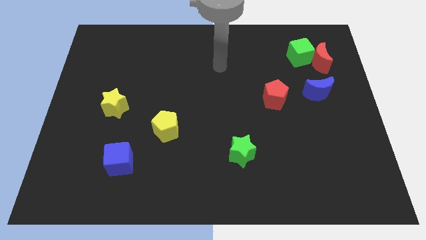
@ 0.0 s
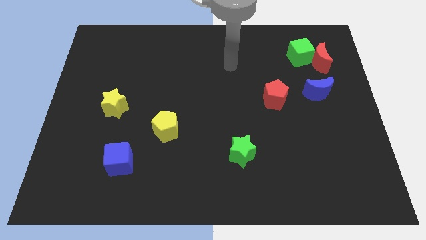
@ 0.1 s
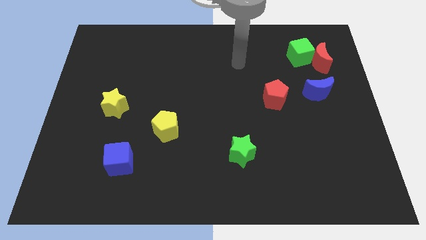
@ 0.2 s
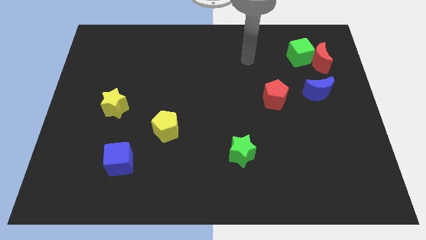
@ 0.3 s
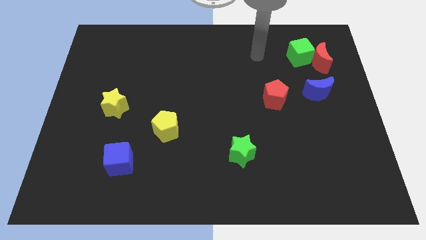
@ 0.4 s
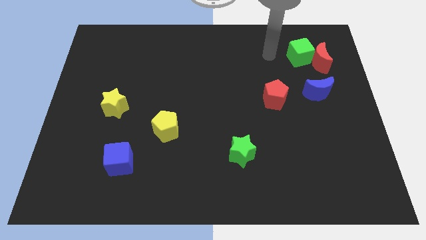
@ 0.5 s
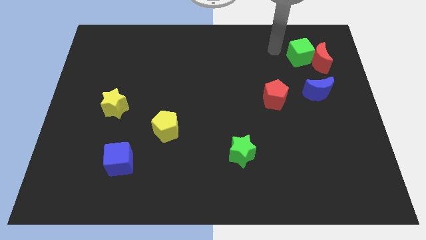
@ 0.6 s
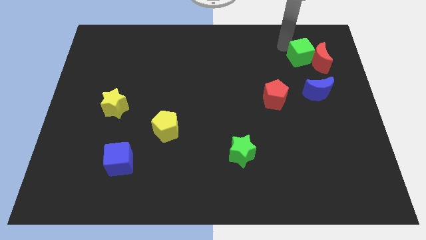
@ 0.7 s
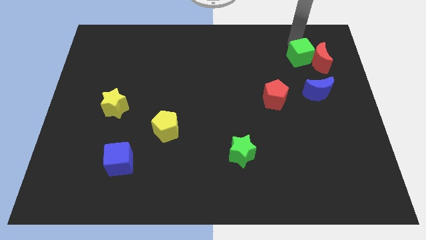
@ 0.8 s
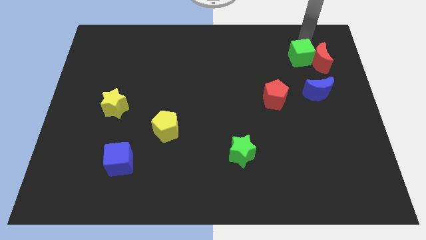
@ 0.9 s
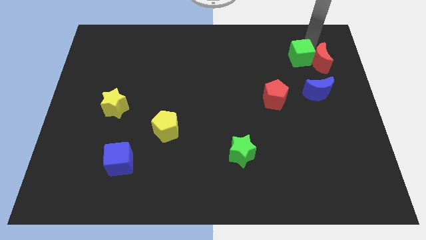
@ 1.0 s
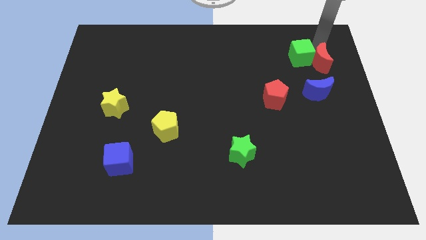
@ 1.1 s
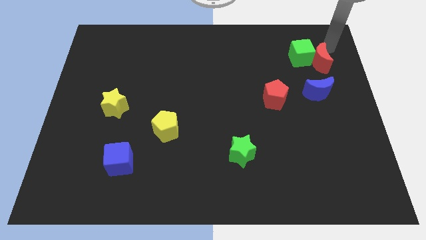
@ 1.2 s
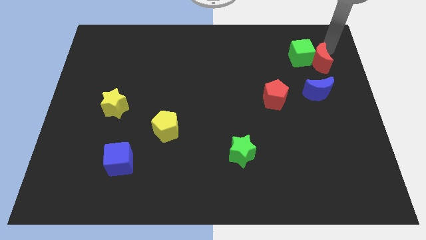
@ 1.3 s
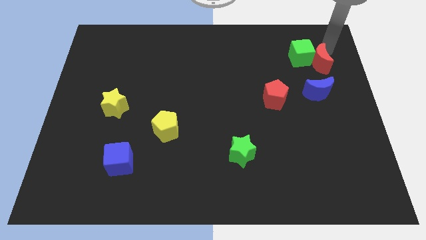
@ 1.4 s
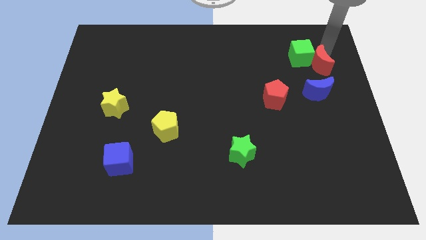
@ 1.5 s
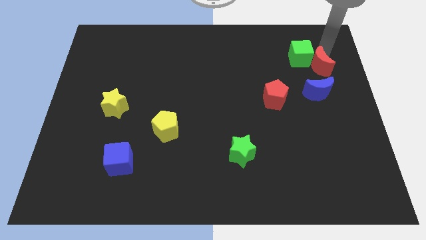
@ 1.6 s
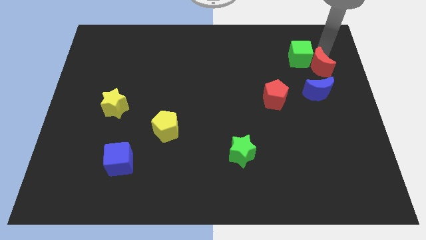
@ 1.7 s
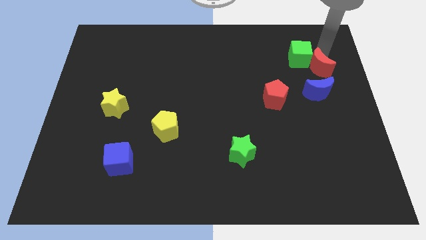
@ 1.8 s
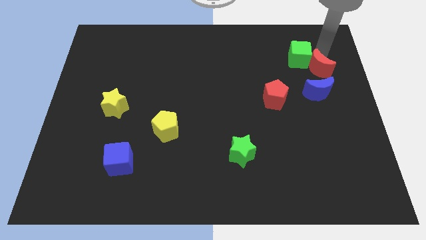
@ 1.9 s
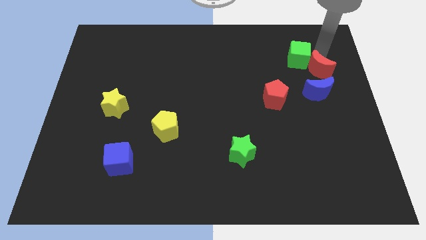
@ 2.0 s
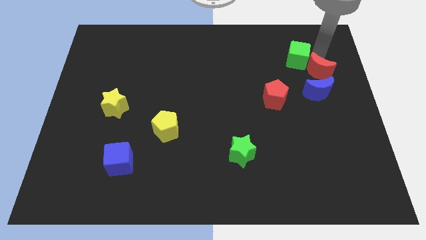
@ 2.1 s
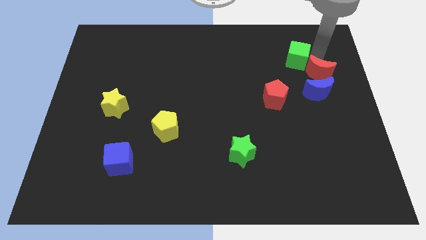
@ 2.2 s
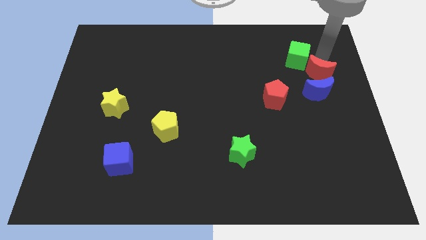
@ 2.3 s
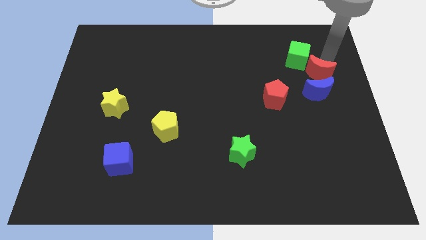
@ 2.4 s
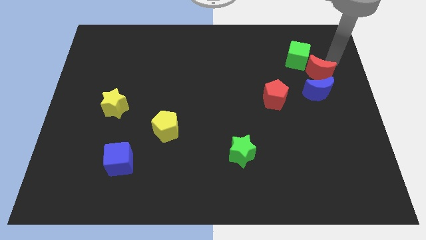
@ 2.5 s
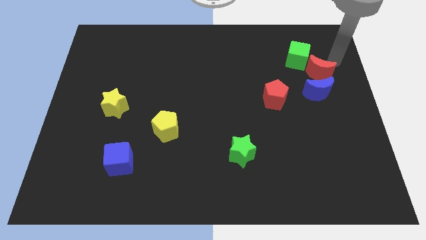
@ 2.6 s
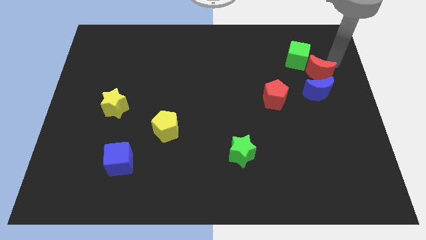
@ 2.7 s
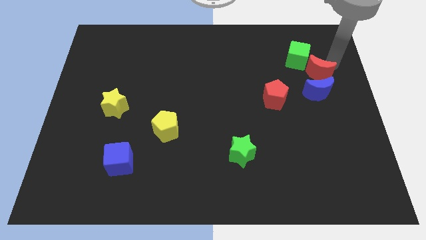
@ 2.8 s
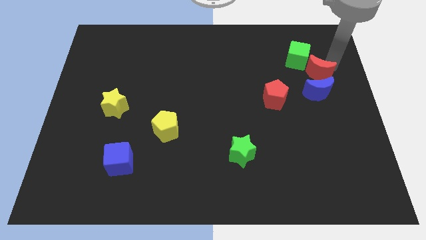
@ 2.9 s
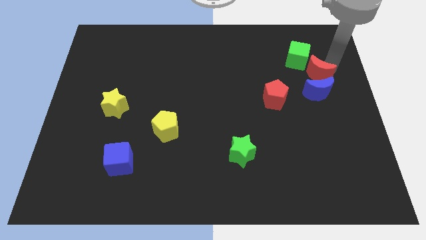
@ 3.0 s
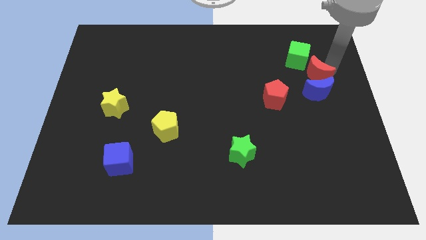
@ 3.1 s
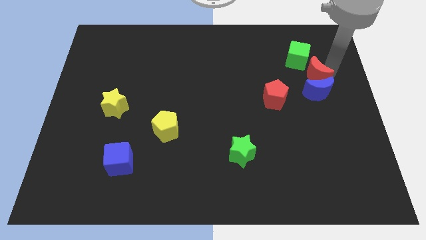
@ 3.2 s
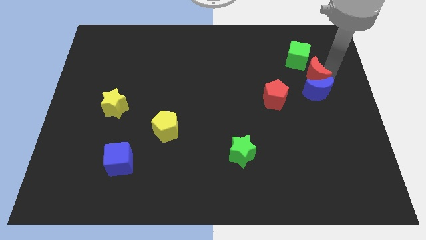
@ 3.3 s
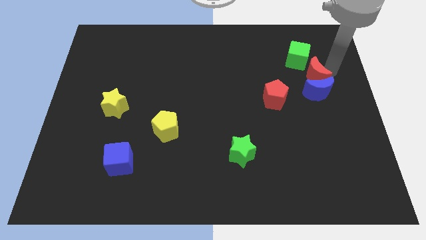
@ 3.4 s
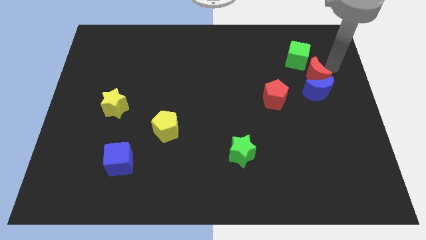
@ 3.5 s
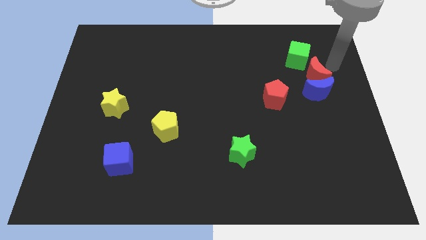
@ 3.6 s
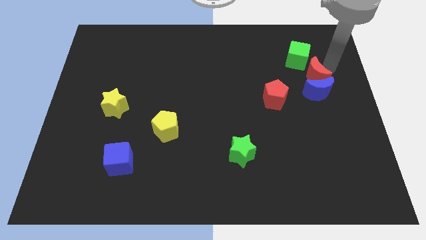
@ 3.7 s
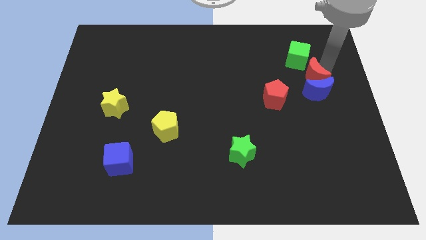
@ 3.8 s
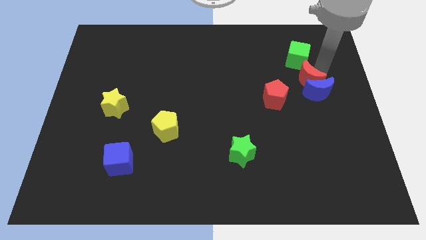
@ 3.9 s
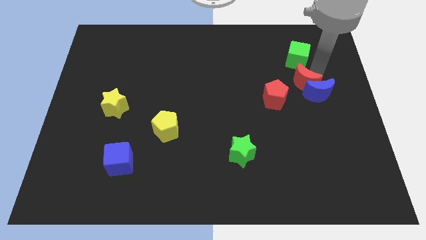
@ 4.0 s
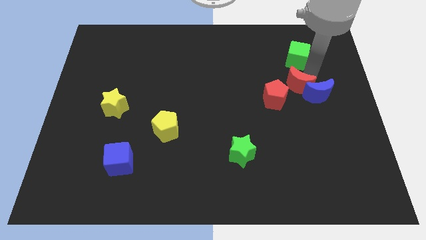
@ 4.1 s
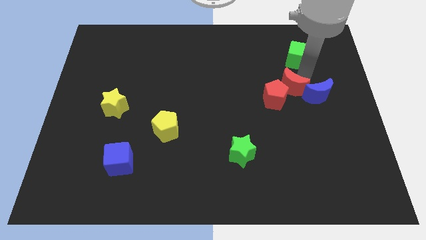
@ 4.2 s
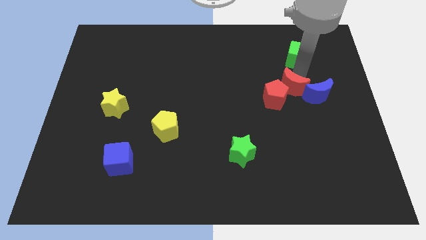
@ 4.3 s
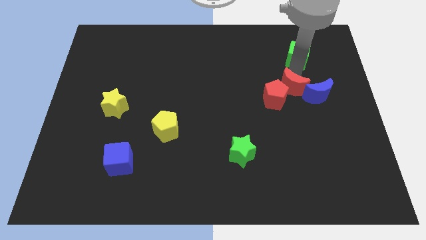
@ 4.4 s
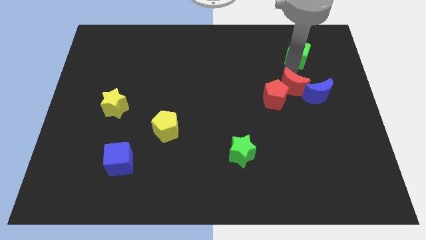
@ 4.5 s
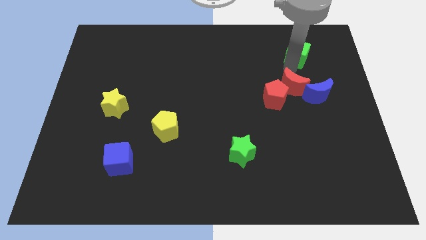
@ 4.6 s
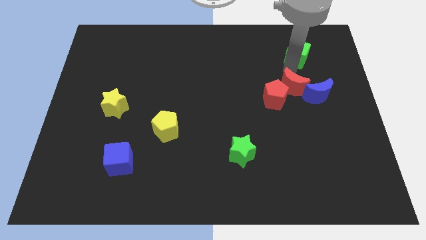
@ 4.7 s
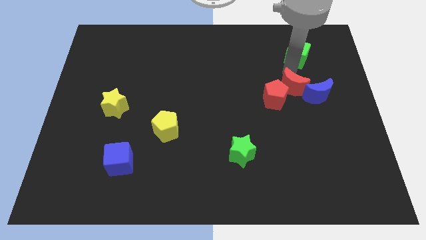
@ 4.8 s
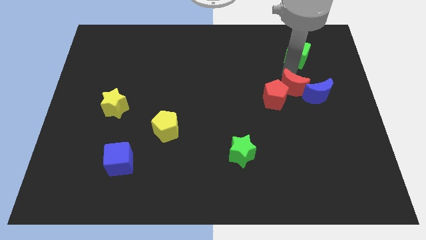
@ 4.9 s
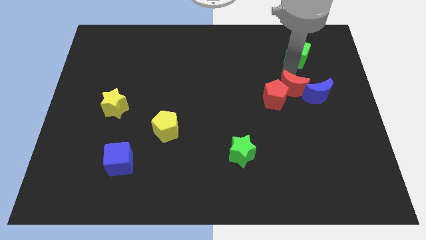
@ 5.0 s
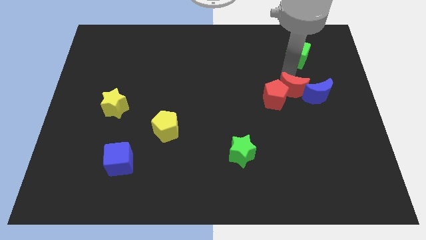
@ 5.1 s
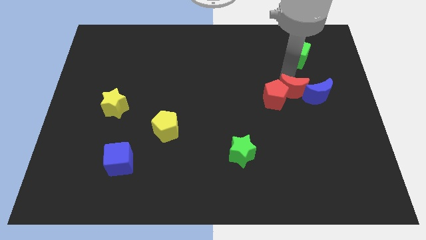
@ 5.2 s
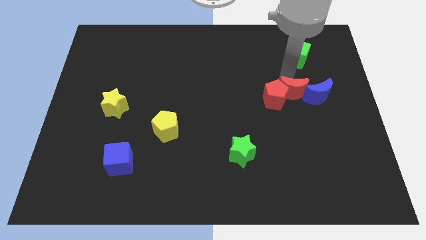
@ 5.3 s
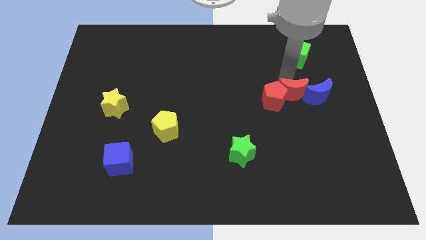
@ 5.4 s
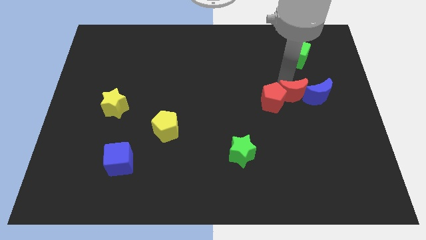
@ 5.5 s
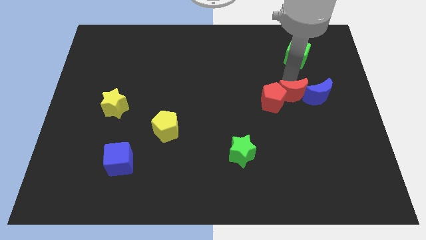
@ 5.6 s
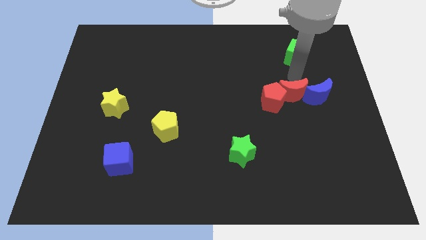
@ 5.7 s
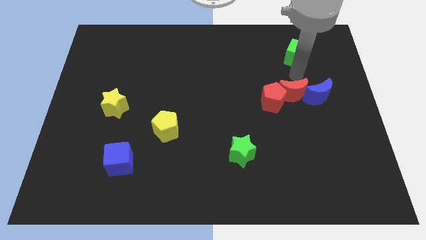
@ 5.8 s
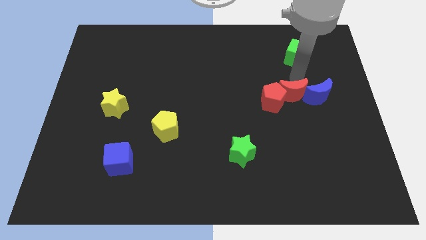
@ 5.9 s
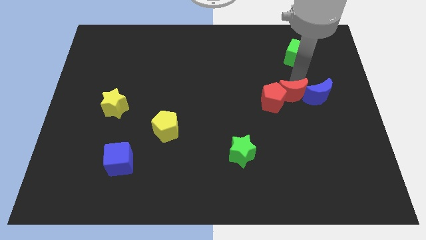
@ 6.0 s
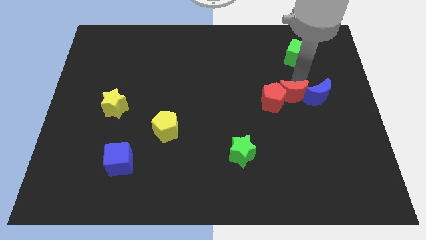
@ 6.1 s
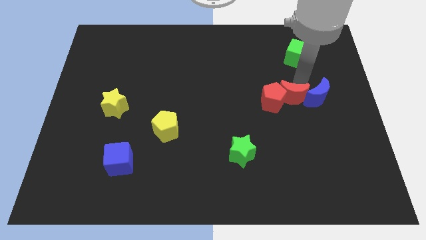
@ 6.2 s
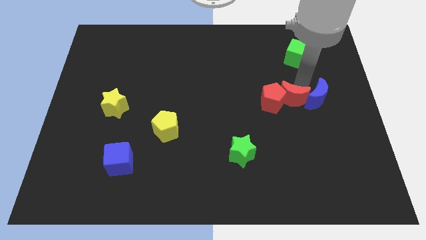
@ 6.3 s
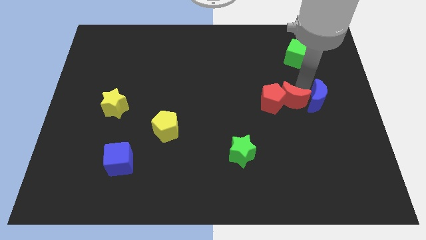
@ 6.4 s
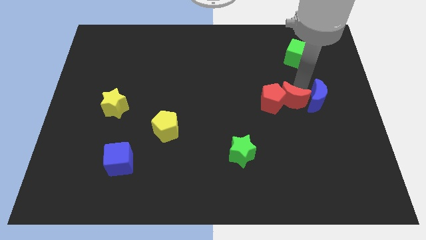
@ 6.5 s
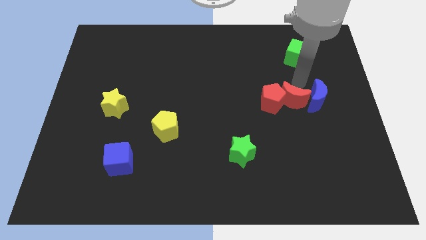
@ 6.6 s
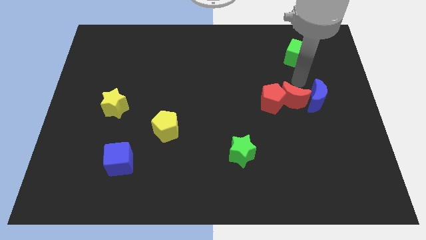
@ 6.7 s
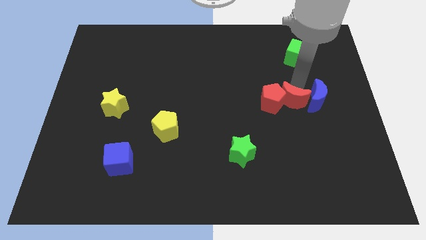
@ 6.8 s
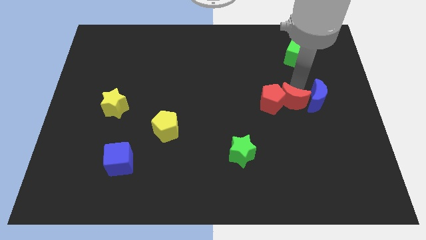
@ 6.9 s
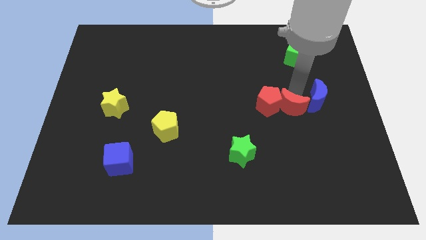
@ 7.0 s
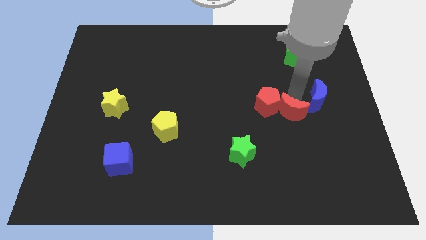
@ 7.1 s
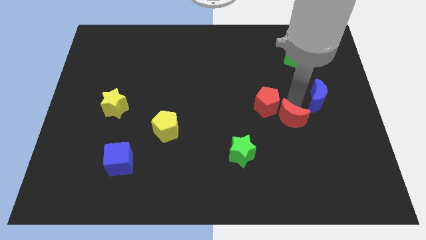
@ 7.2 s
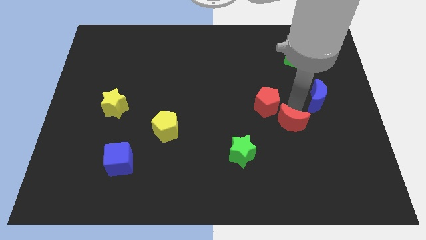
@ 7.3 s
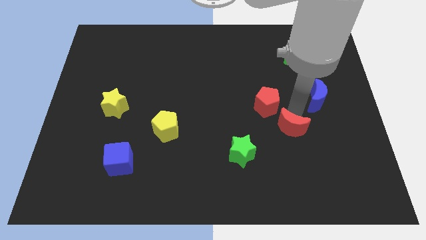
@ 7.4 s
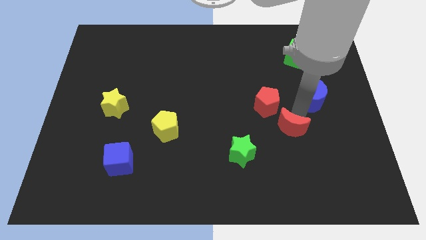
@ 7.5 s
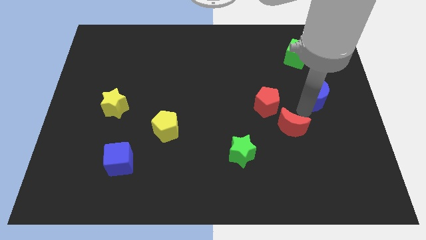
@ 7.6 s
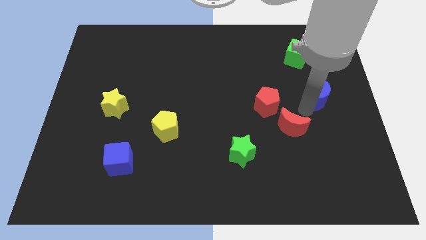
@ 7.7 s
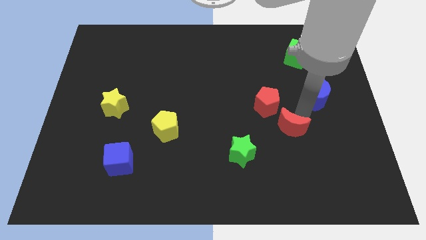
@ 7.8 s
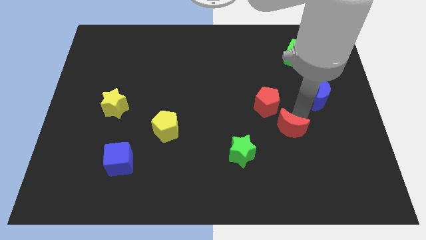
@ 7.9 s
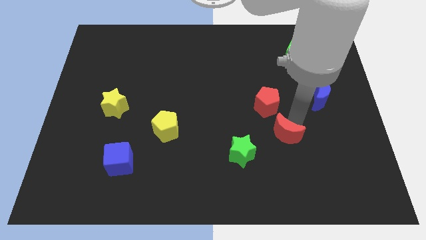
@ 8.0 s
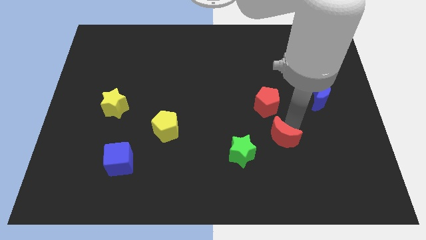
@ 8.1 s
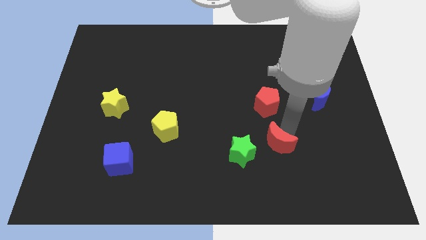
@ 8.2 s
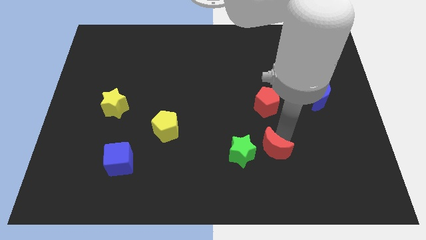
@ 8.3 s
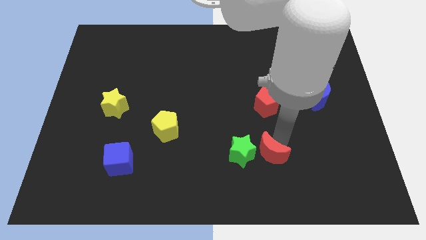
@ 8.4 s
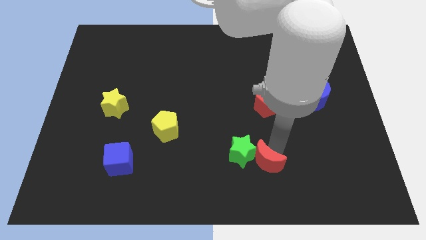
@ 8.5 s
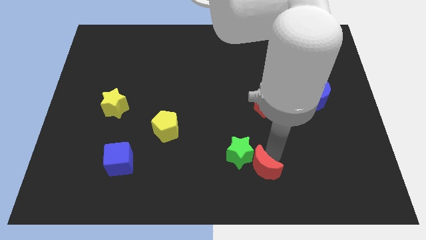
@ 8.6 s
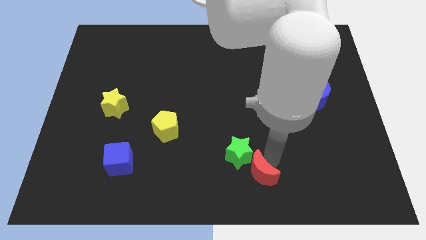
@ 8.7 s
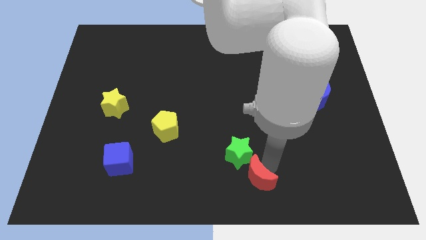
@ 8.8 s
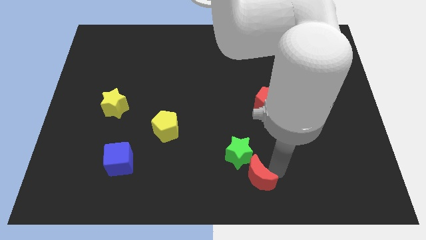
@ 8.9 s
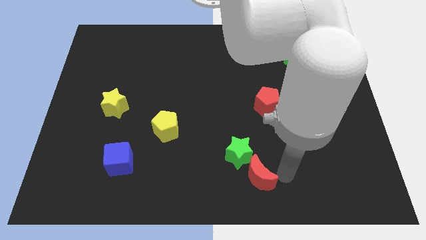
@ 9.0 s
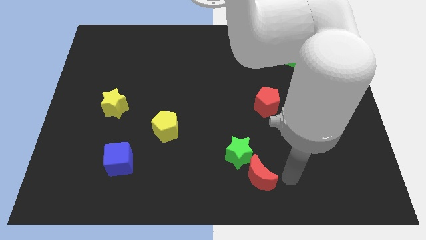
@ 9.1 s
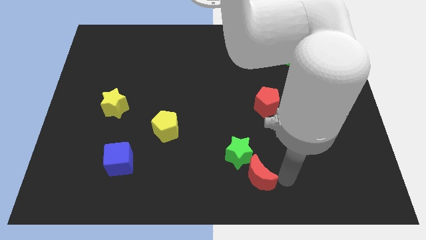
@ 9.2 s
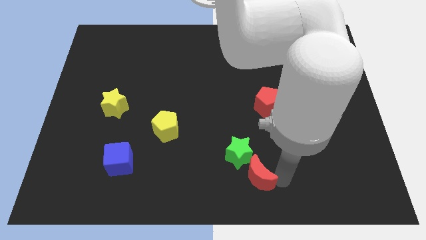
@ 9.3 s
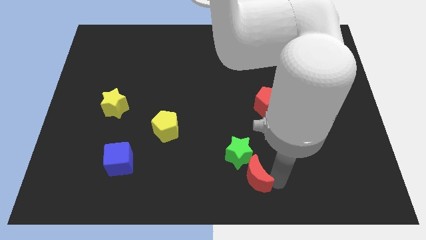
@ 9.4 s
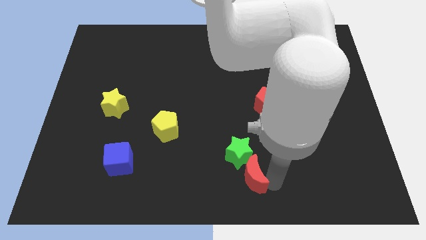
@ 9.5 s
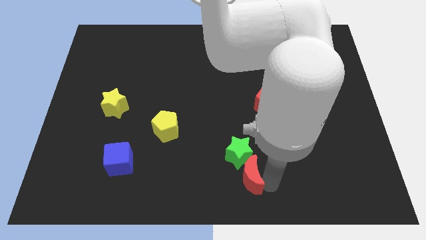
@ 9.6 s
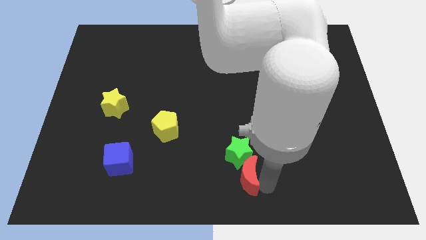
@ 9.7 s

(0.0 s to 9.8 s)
move the red moon to the bottom left side of the green star
